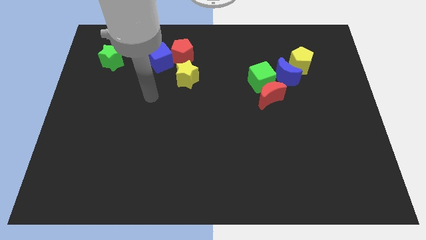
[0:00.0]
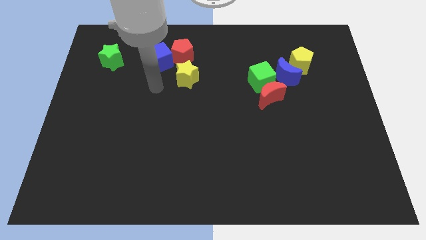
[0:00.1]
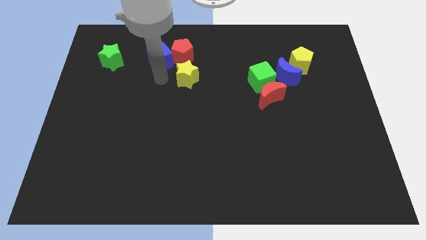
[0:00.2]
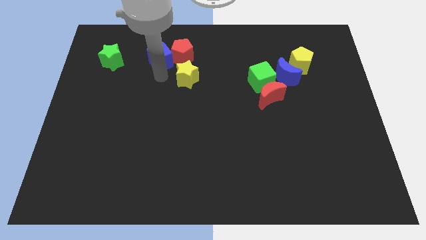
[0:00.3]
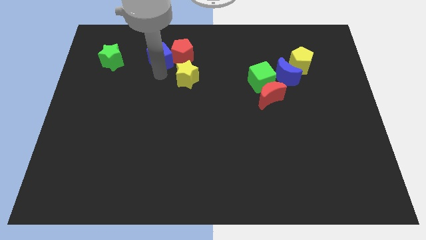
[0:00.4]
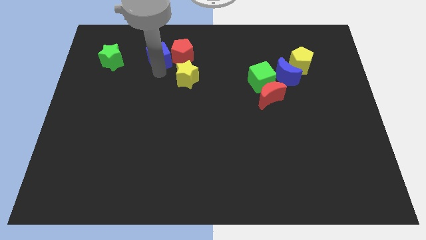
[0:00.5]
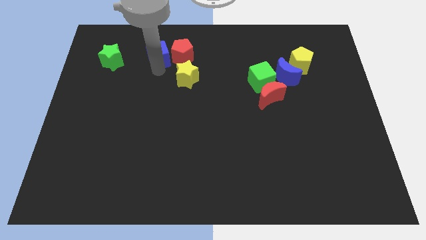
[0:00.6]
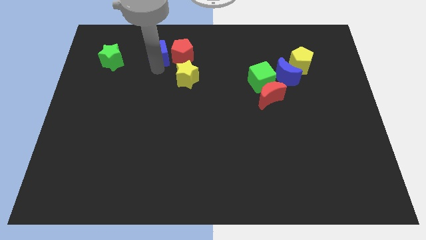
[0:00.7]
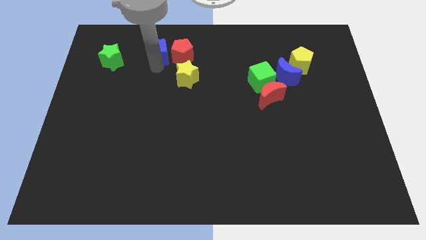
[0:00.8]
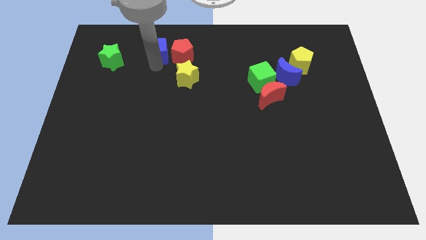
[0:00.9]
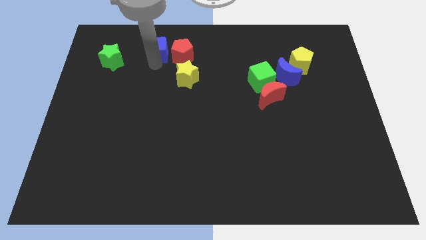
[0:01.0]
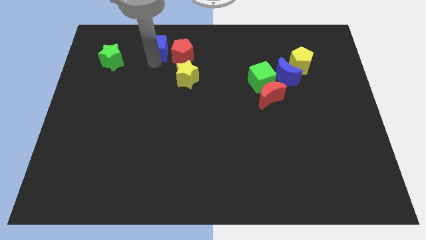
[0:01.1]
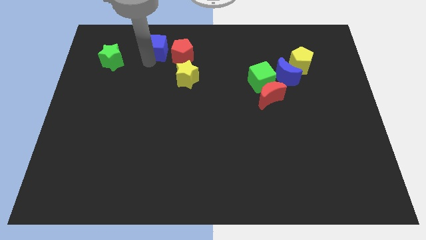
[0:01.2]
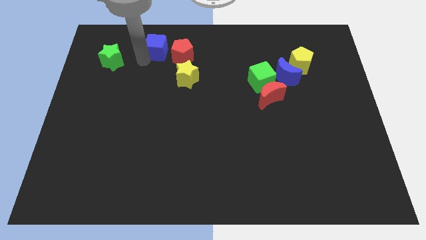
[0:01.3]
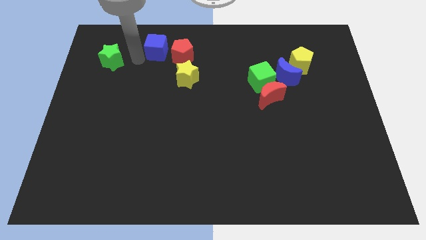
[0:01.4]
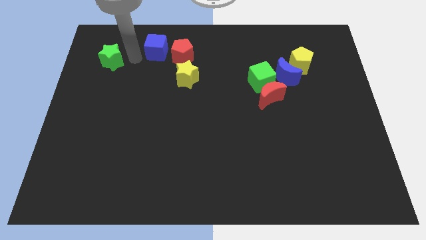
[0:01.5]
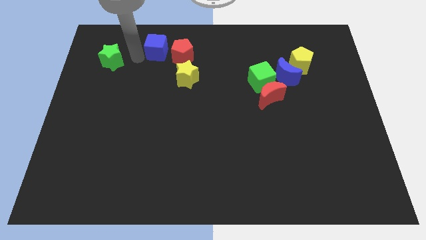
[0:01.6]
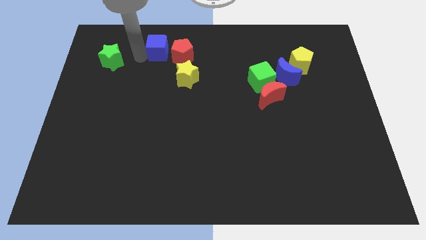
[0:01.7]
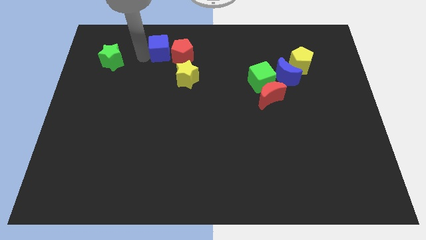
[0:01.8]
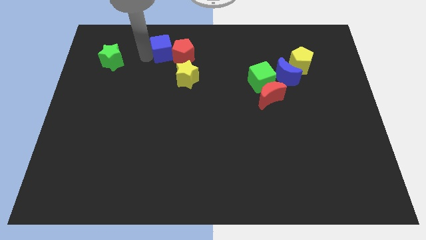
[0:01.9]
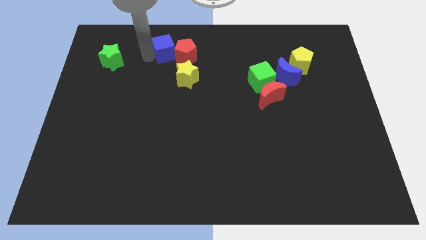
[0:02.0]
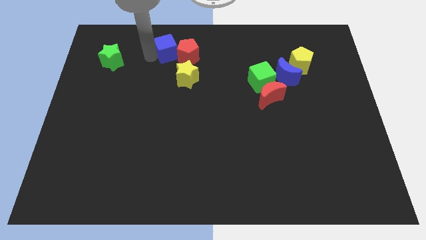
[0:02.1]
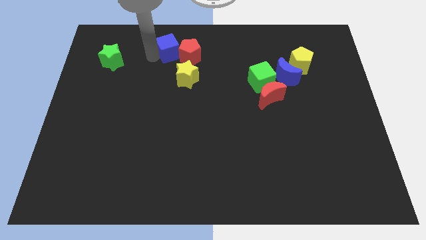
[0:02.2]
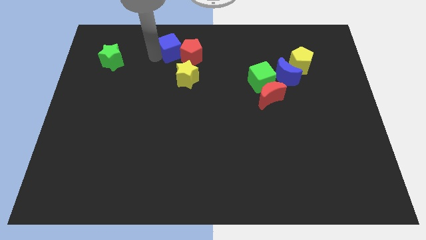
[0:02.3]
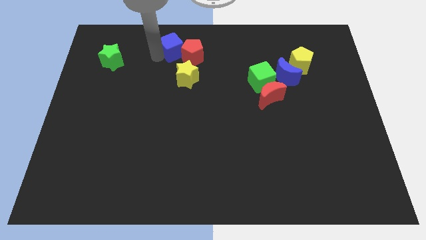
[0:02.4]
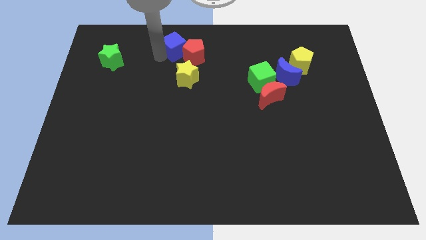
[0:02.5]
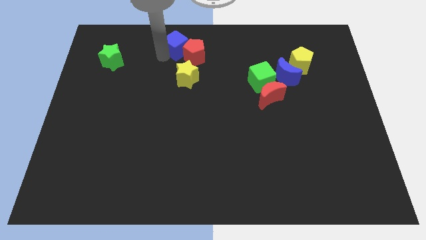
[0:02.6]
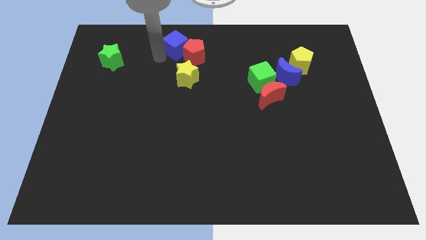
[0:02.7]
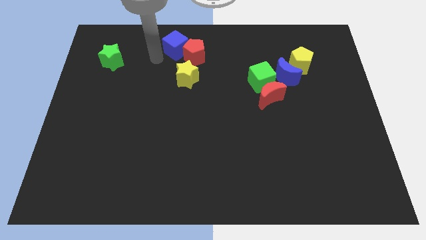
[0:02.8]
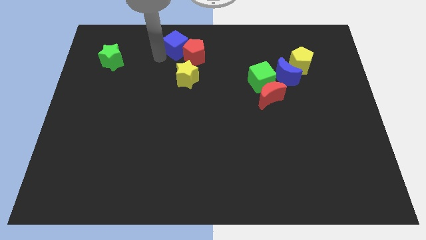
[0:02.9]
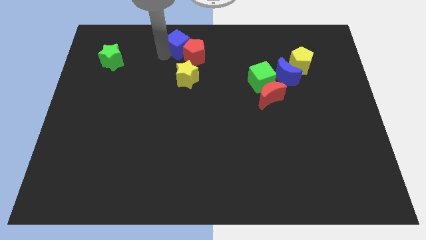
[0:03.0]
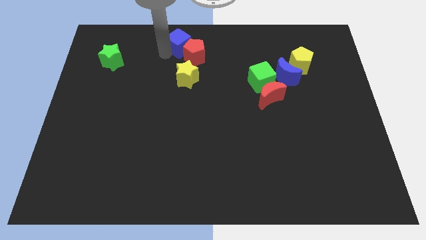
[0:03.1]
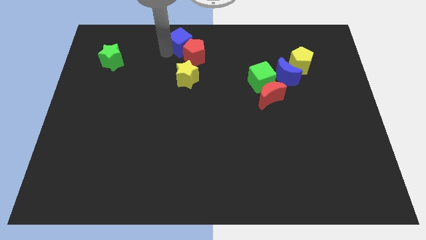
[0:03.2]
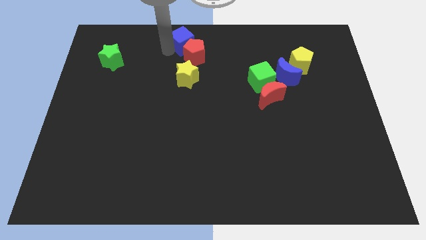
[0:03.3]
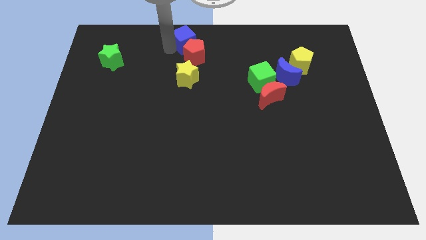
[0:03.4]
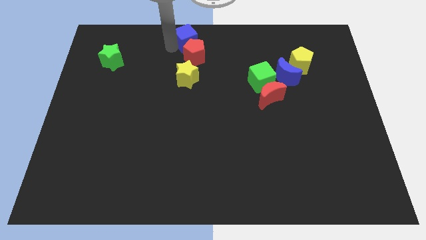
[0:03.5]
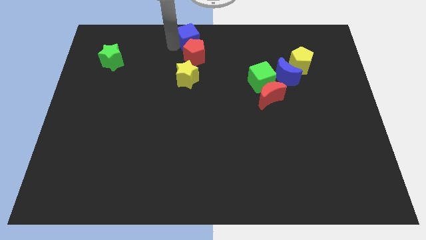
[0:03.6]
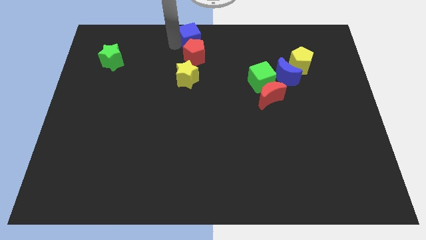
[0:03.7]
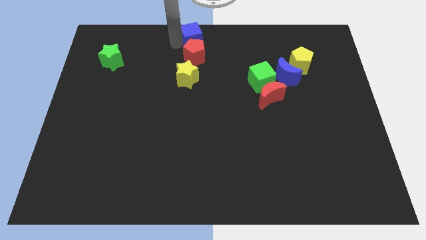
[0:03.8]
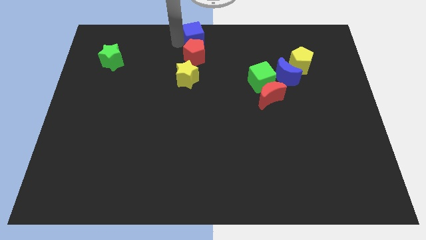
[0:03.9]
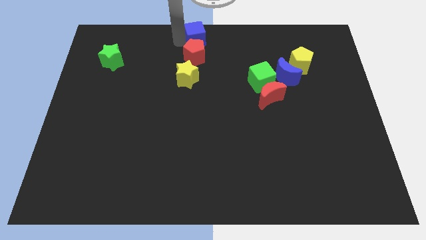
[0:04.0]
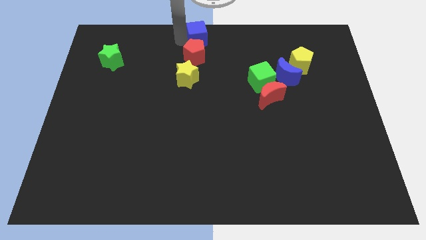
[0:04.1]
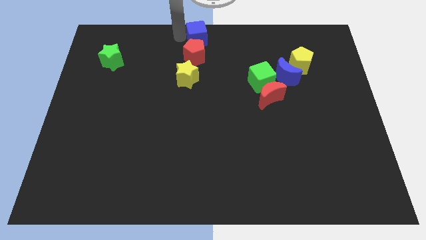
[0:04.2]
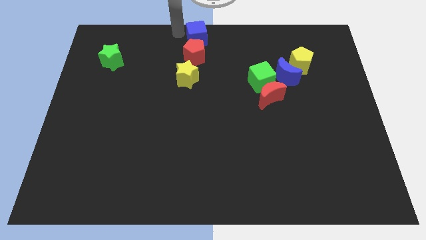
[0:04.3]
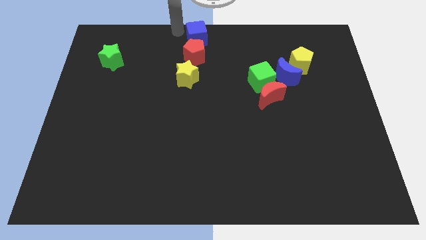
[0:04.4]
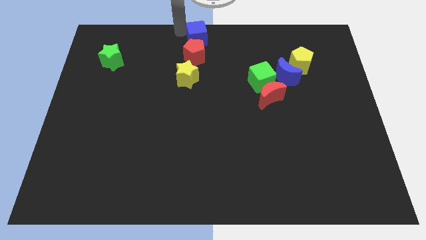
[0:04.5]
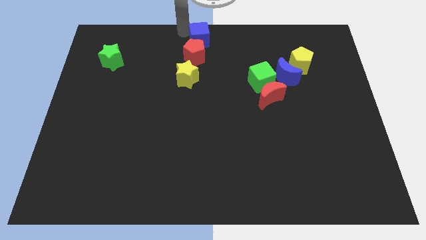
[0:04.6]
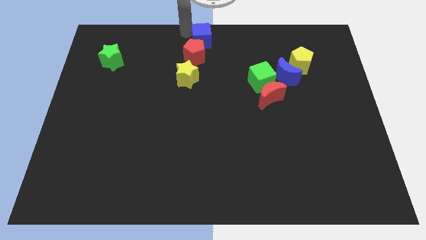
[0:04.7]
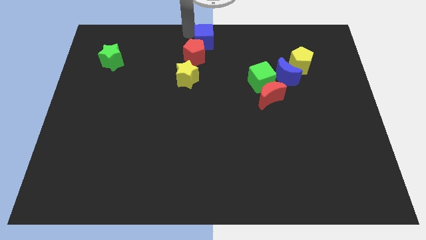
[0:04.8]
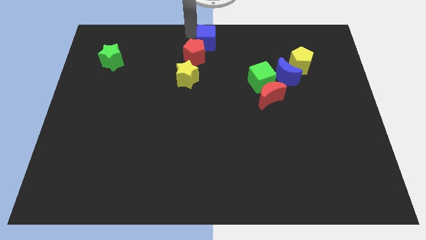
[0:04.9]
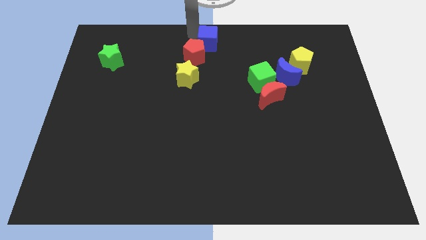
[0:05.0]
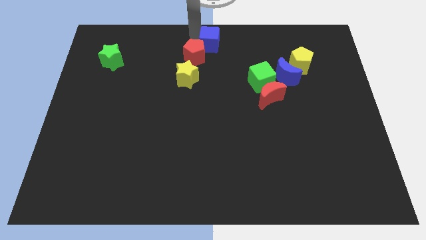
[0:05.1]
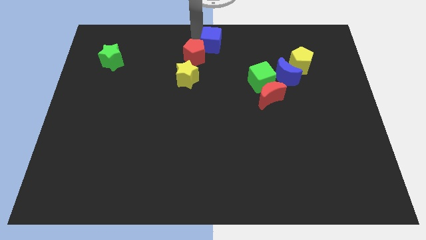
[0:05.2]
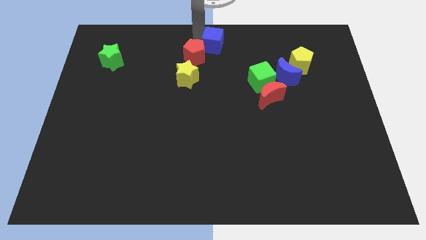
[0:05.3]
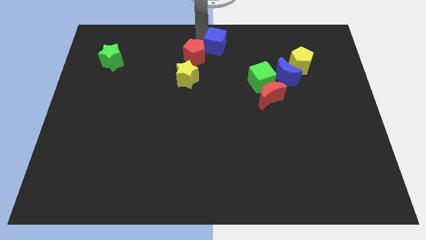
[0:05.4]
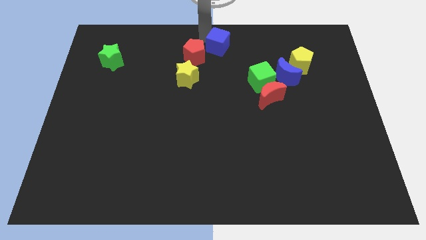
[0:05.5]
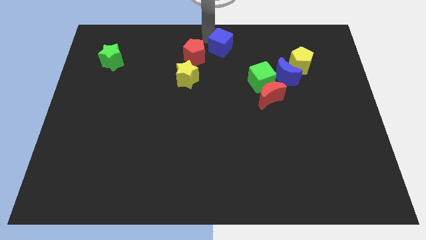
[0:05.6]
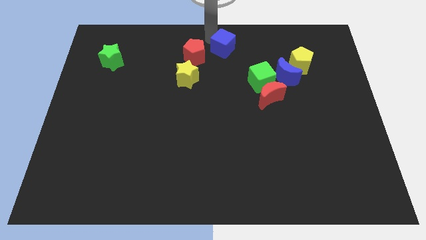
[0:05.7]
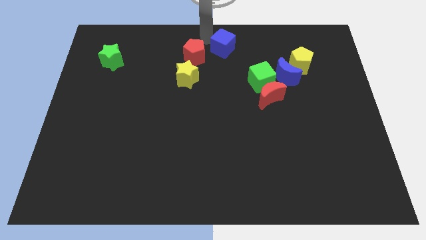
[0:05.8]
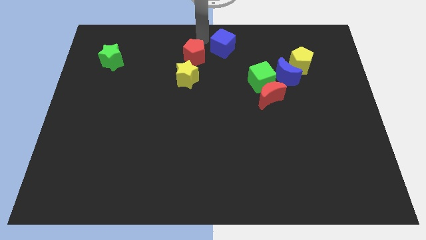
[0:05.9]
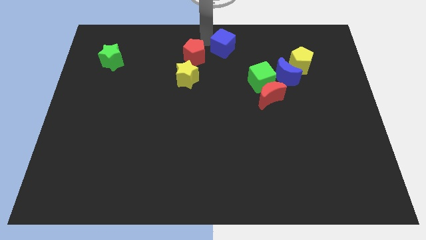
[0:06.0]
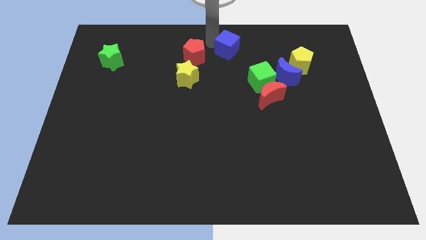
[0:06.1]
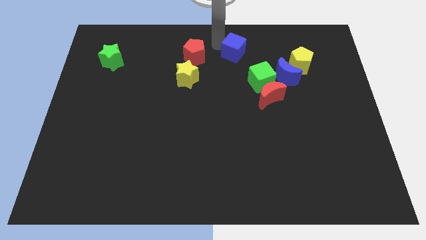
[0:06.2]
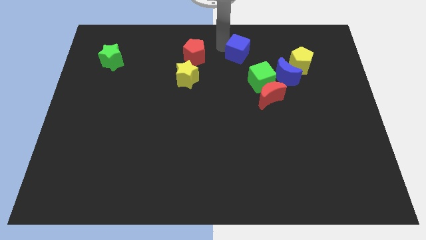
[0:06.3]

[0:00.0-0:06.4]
push the blue cube to the right

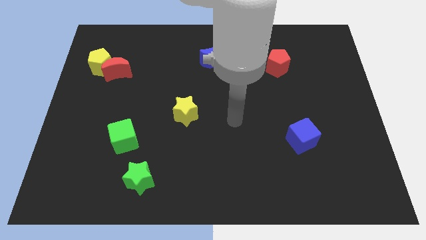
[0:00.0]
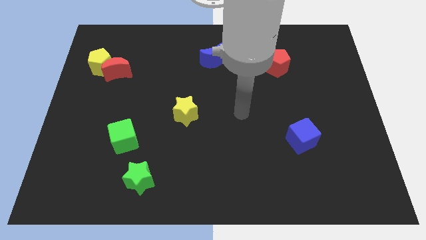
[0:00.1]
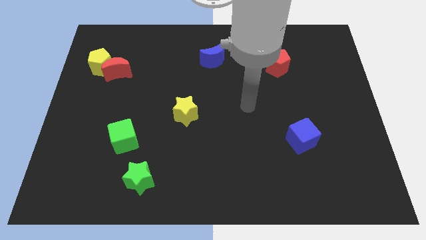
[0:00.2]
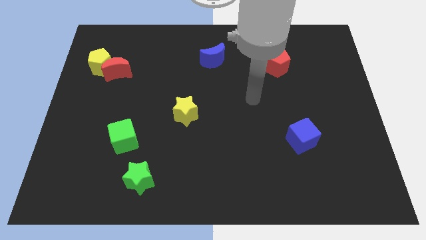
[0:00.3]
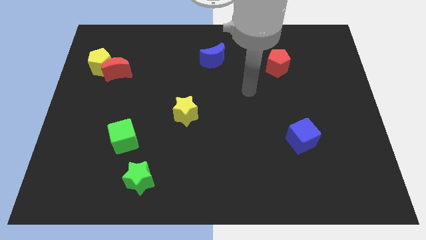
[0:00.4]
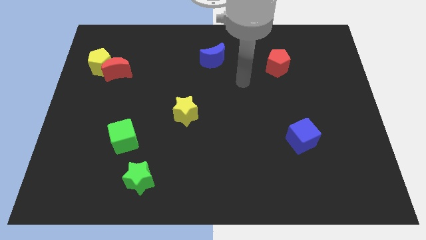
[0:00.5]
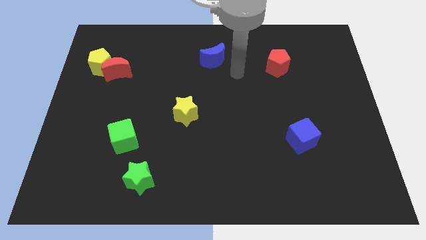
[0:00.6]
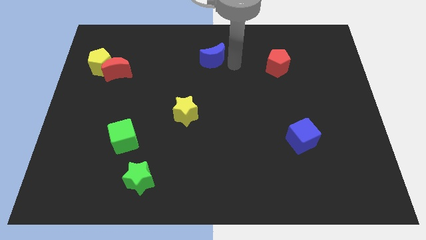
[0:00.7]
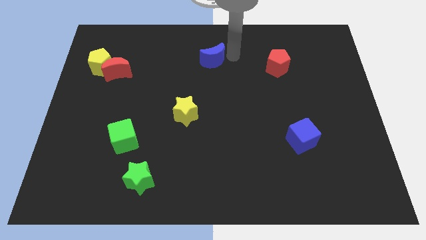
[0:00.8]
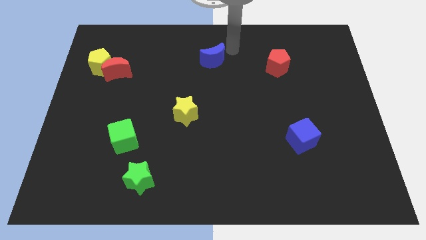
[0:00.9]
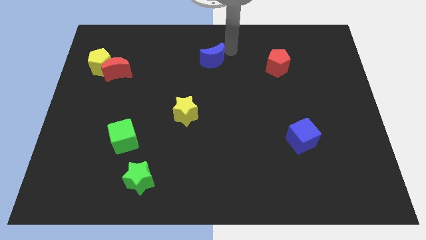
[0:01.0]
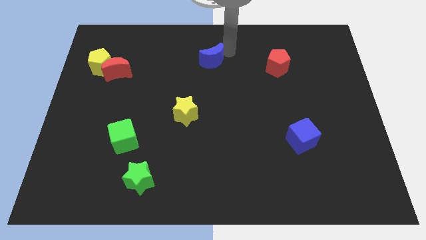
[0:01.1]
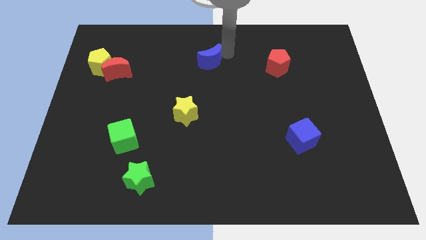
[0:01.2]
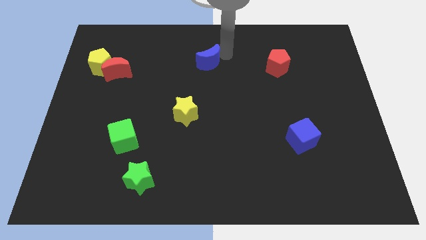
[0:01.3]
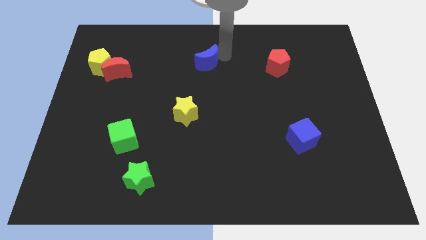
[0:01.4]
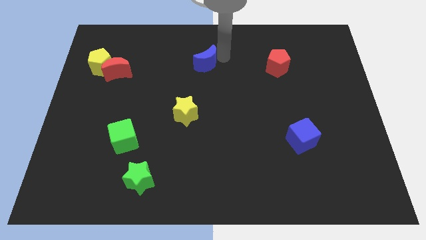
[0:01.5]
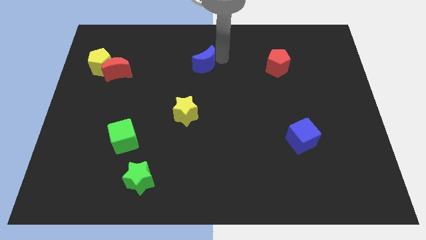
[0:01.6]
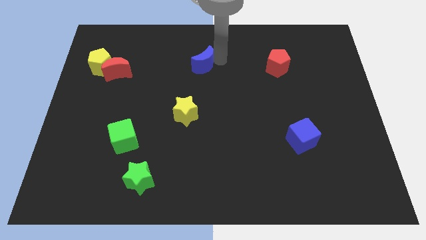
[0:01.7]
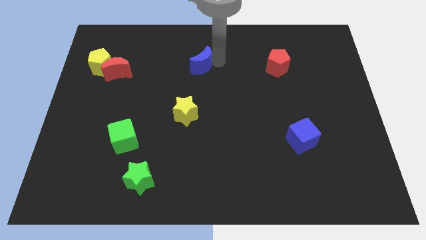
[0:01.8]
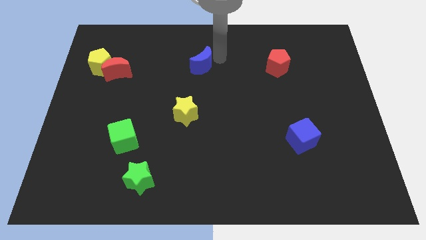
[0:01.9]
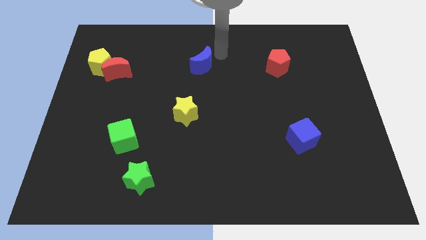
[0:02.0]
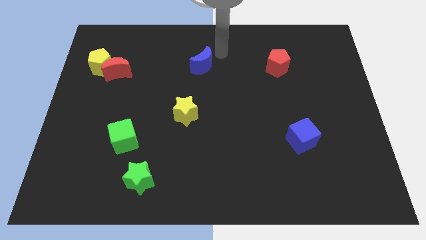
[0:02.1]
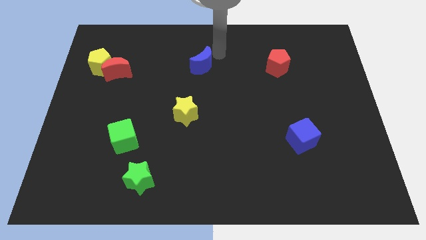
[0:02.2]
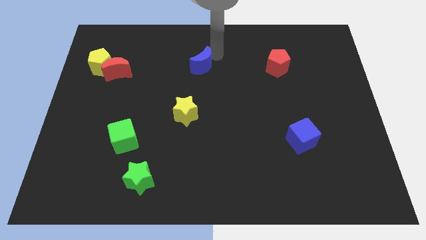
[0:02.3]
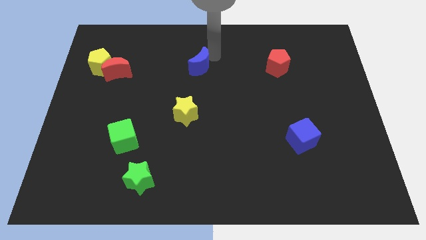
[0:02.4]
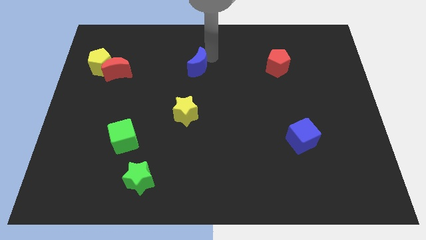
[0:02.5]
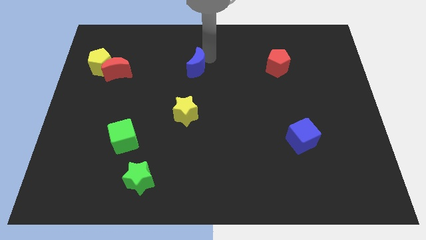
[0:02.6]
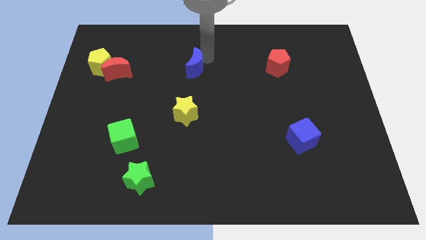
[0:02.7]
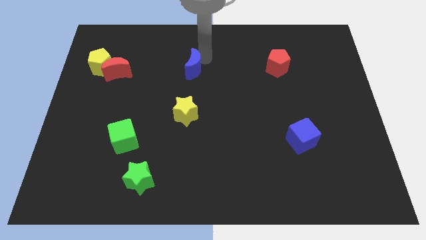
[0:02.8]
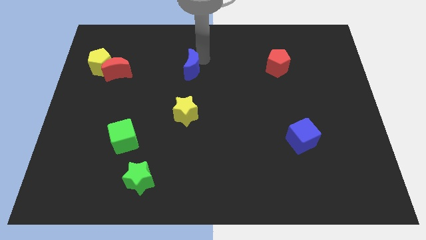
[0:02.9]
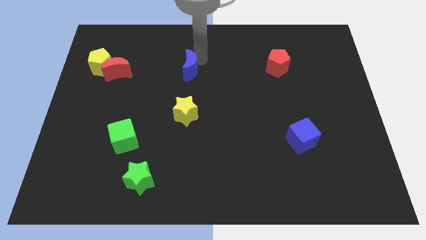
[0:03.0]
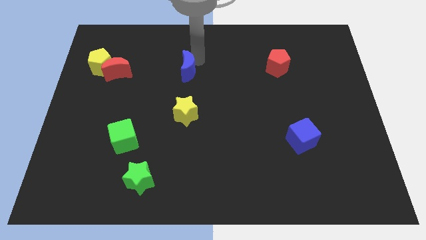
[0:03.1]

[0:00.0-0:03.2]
slightly move the blue moon downwards and to the left diagonally
